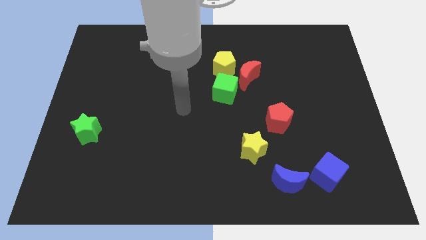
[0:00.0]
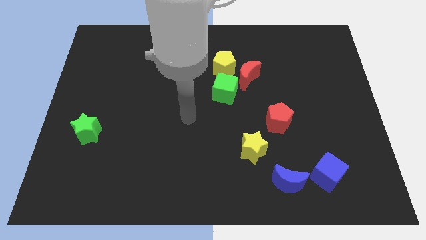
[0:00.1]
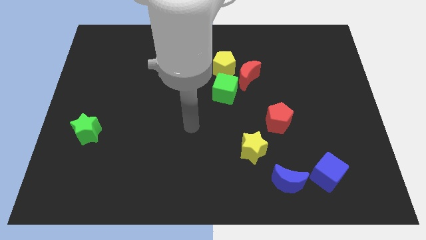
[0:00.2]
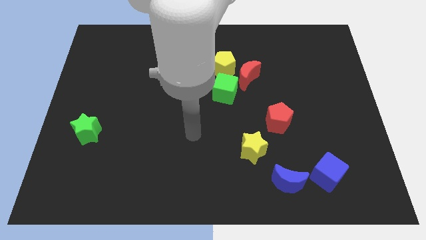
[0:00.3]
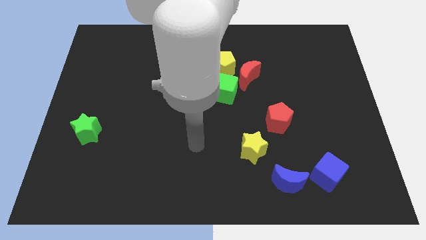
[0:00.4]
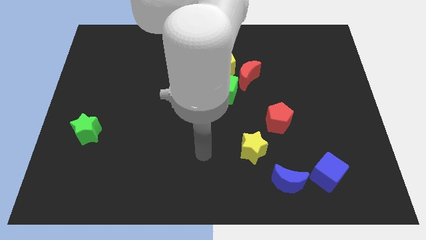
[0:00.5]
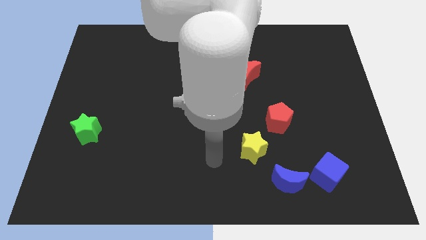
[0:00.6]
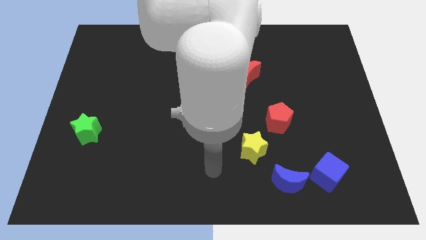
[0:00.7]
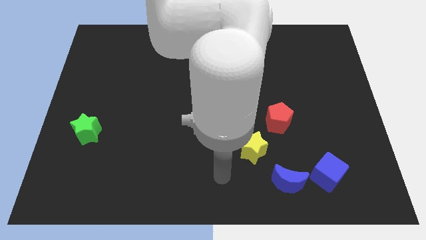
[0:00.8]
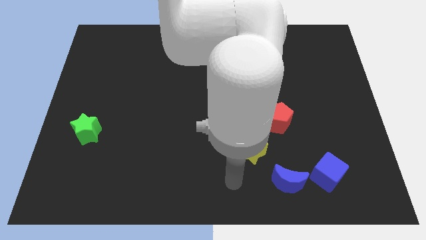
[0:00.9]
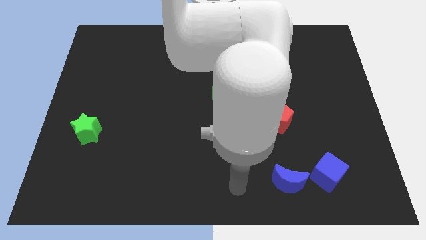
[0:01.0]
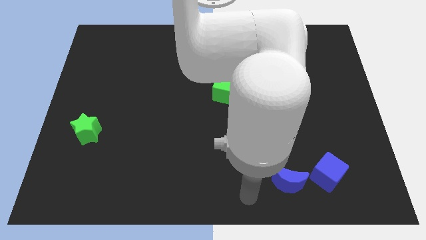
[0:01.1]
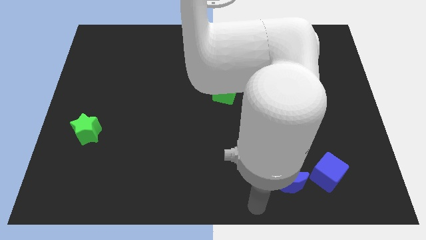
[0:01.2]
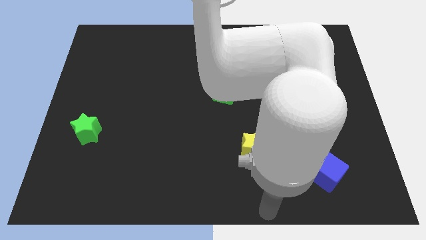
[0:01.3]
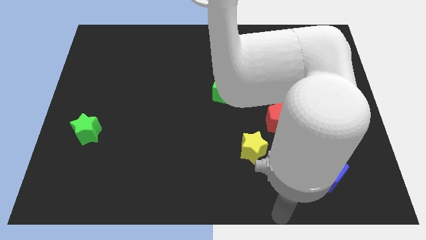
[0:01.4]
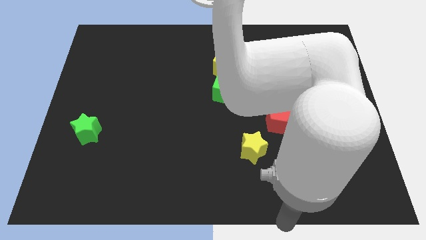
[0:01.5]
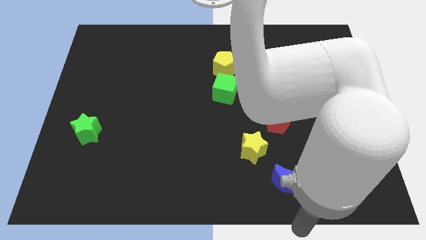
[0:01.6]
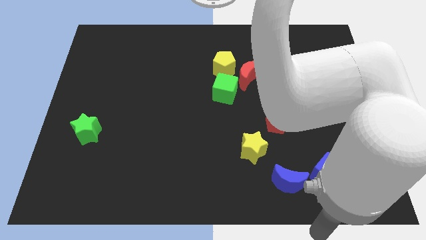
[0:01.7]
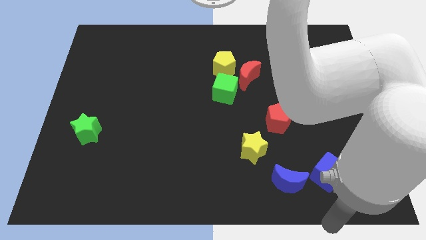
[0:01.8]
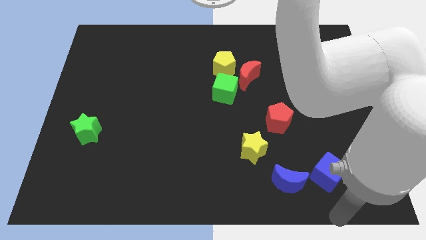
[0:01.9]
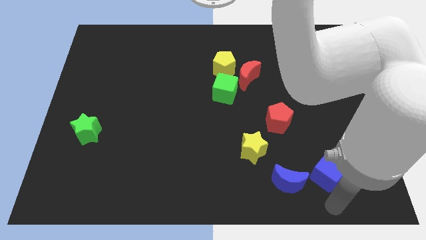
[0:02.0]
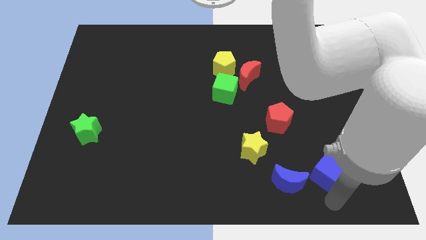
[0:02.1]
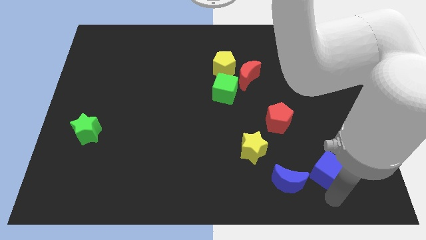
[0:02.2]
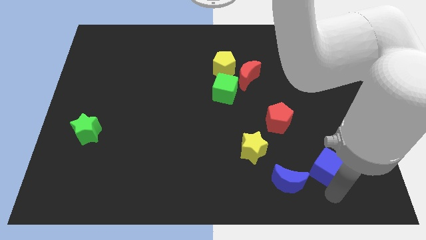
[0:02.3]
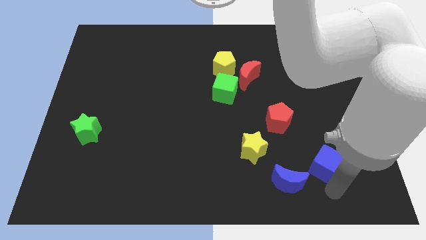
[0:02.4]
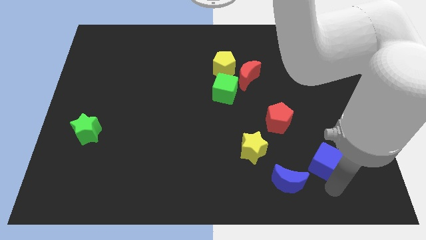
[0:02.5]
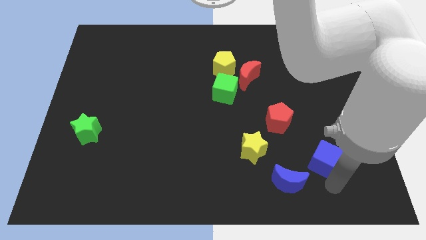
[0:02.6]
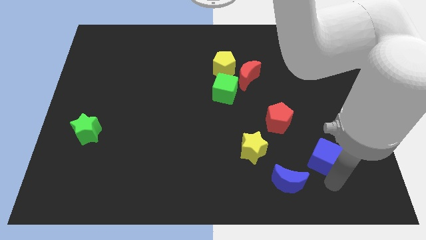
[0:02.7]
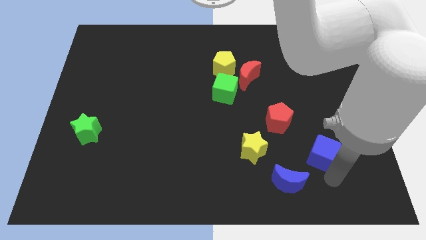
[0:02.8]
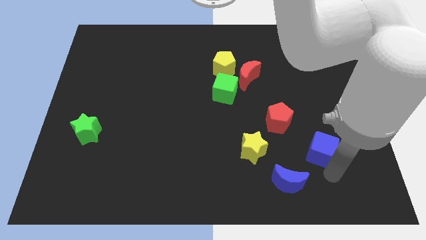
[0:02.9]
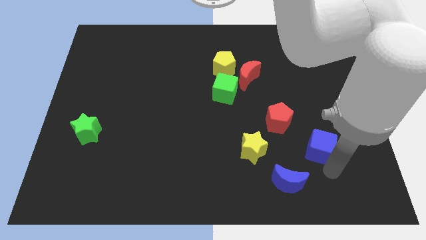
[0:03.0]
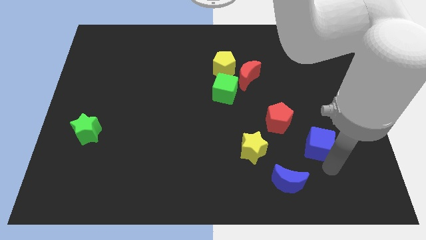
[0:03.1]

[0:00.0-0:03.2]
push the blue cube up slightly

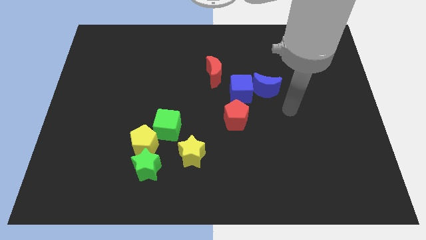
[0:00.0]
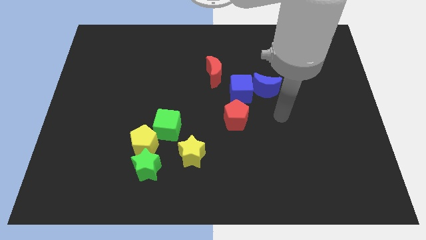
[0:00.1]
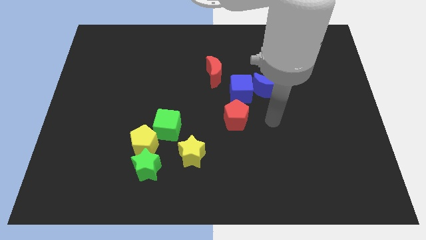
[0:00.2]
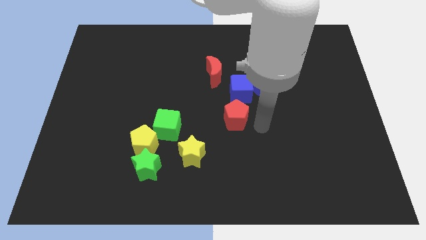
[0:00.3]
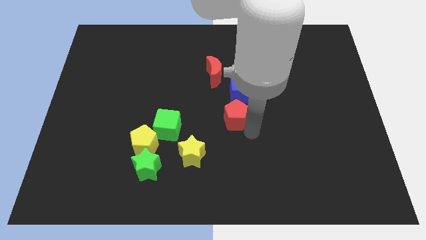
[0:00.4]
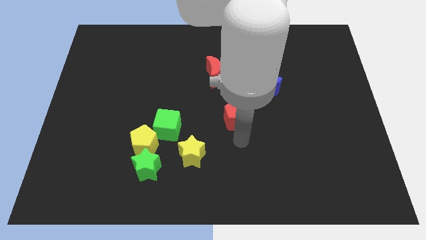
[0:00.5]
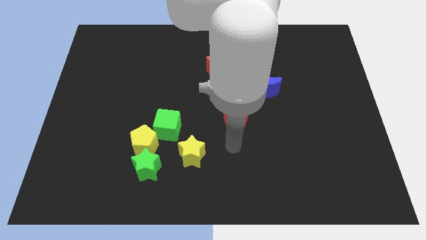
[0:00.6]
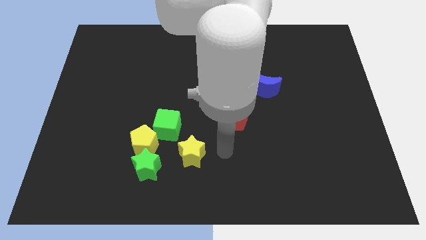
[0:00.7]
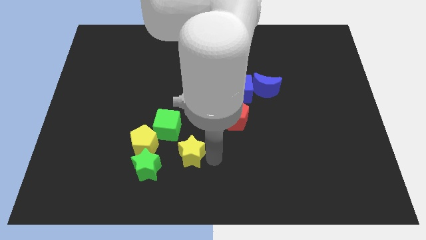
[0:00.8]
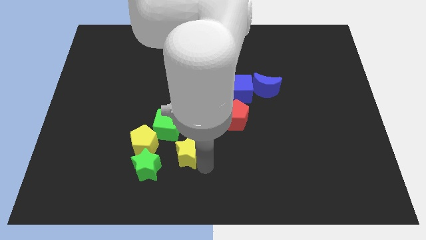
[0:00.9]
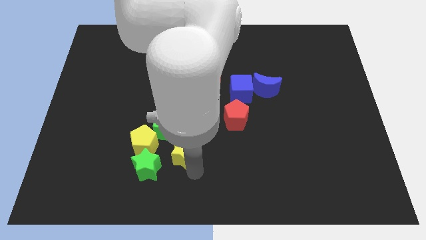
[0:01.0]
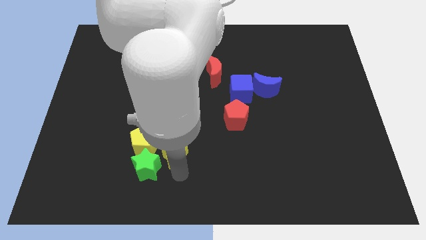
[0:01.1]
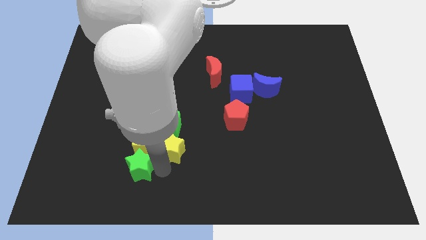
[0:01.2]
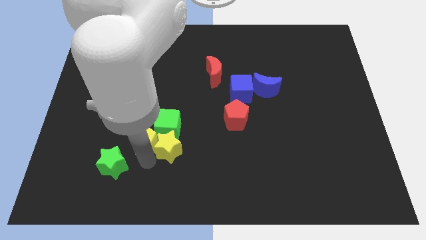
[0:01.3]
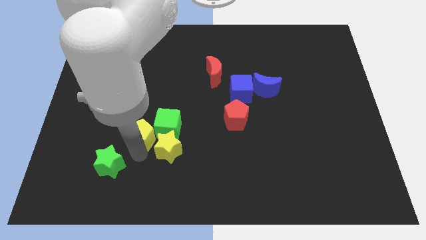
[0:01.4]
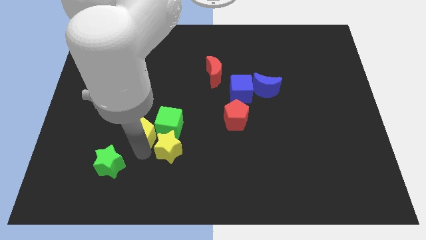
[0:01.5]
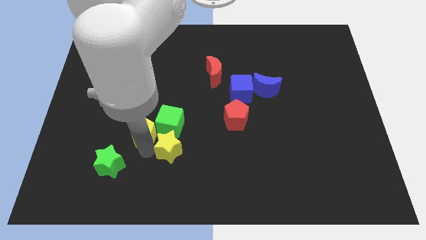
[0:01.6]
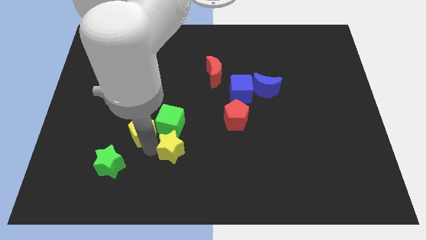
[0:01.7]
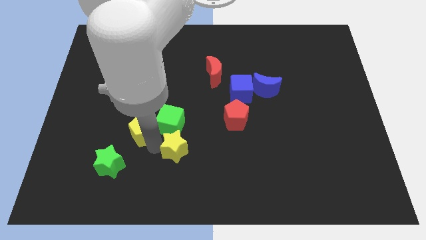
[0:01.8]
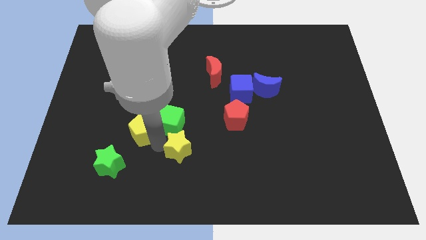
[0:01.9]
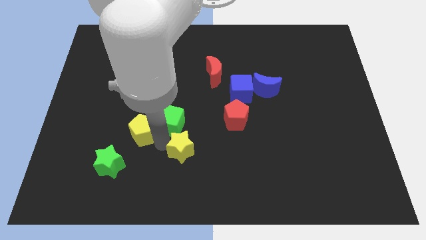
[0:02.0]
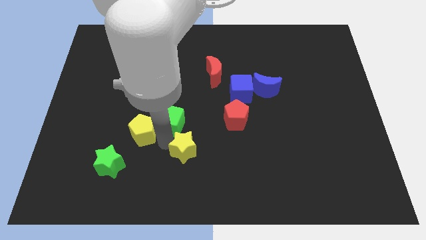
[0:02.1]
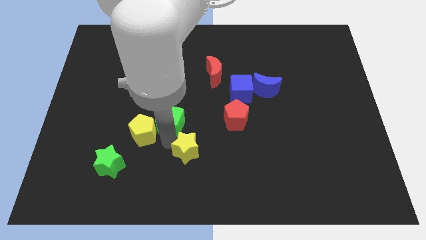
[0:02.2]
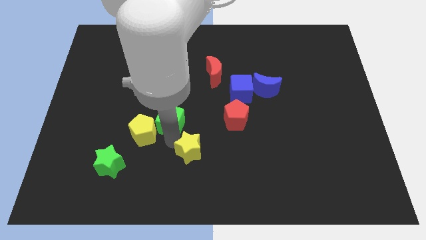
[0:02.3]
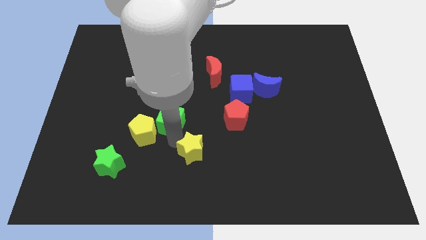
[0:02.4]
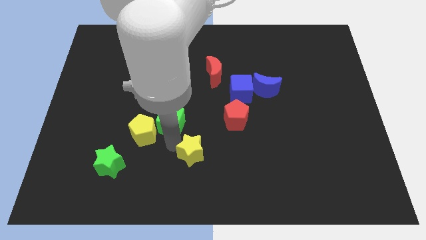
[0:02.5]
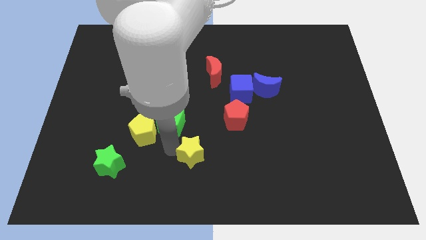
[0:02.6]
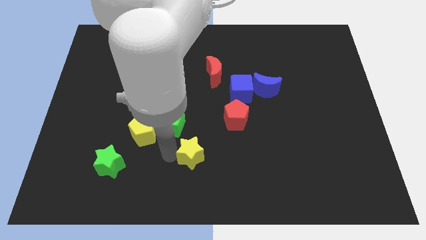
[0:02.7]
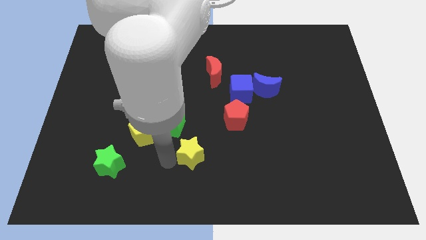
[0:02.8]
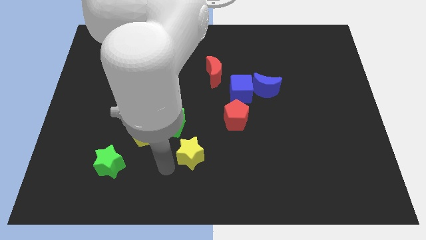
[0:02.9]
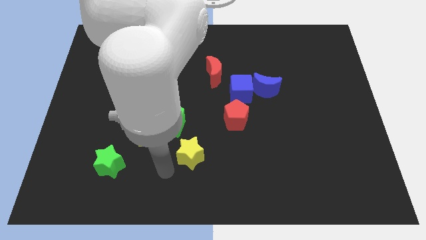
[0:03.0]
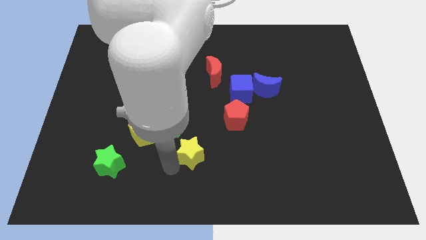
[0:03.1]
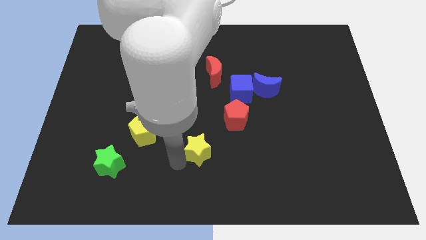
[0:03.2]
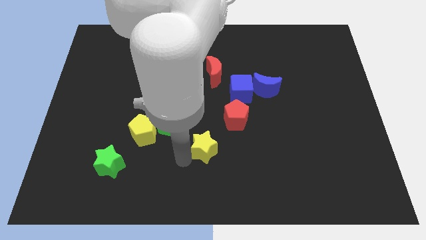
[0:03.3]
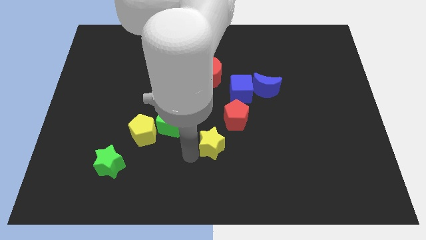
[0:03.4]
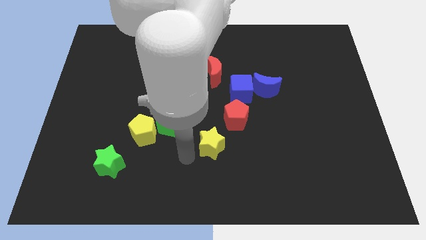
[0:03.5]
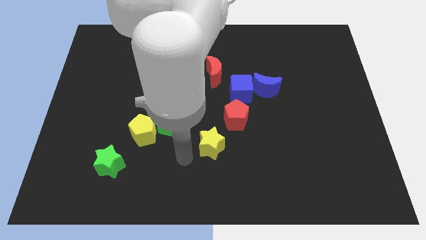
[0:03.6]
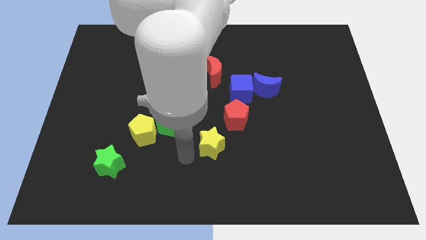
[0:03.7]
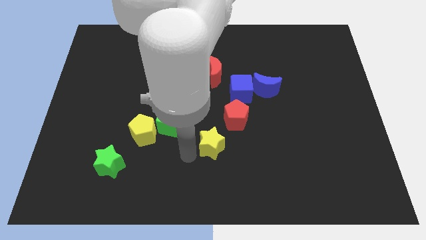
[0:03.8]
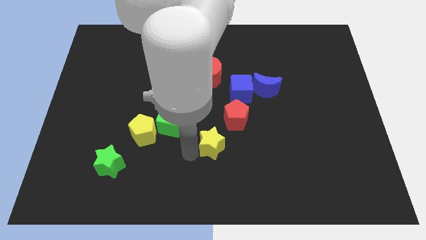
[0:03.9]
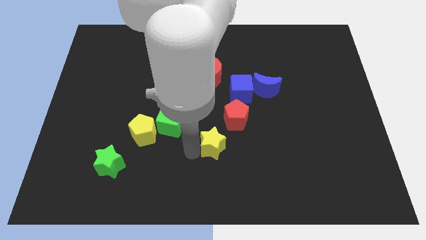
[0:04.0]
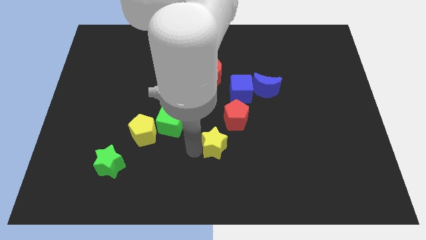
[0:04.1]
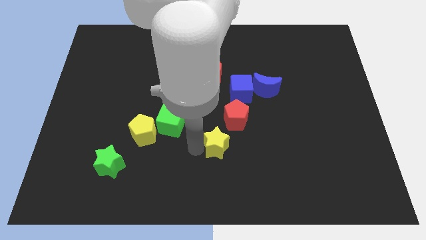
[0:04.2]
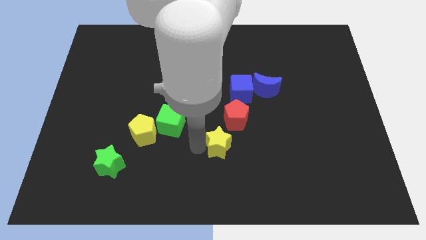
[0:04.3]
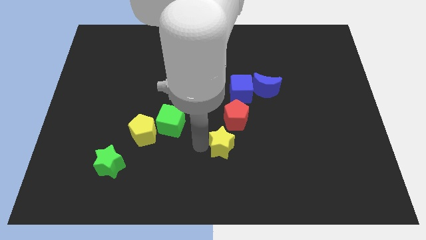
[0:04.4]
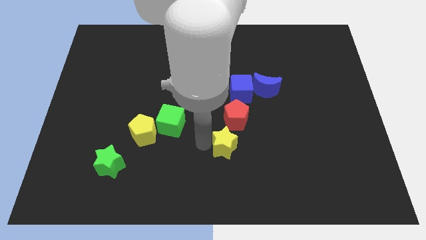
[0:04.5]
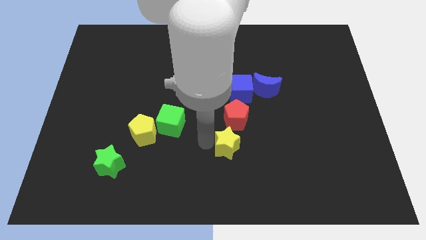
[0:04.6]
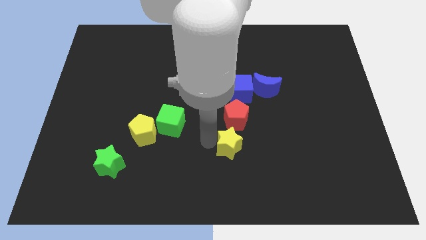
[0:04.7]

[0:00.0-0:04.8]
push the yellow star upwards and right a little bit
